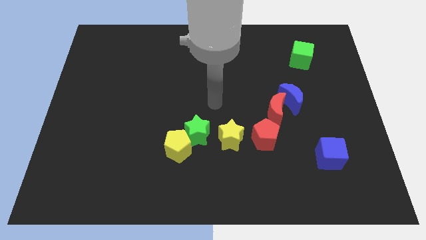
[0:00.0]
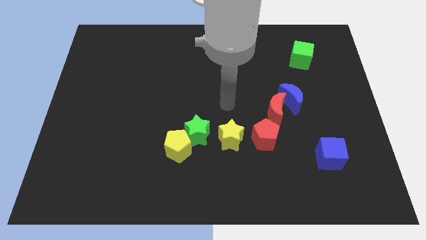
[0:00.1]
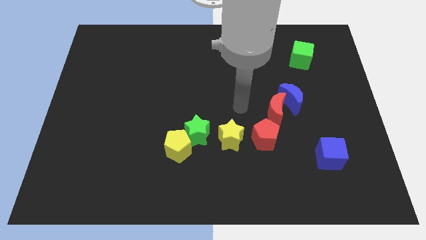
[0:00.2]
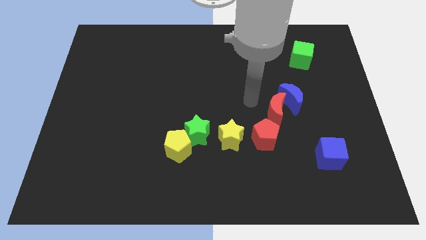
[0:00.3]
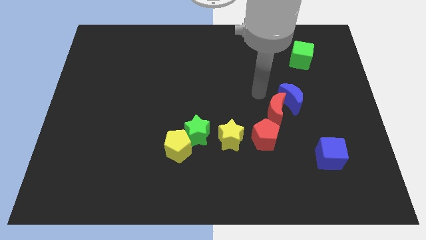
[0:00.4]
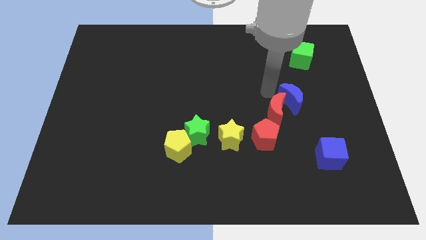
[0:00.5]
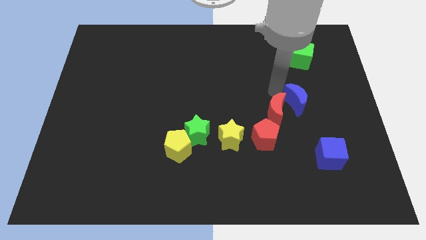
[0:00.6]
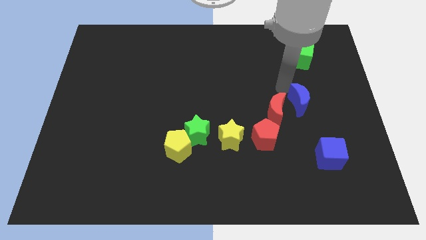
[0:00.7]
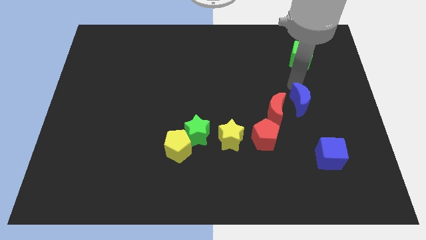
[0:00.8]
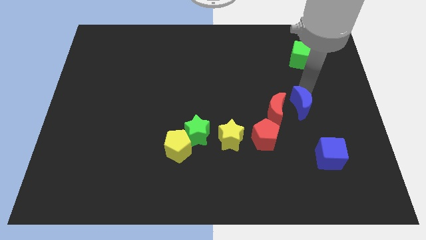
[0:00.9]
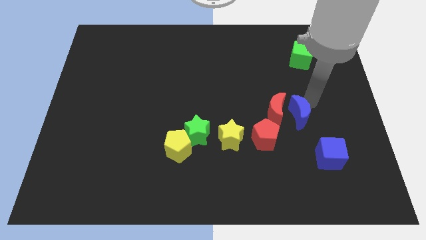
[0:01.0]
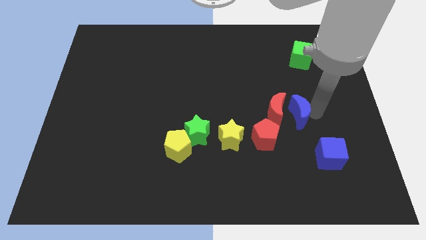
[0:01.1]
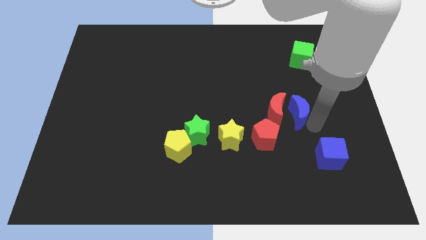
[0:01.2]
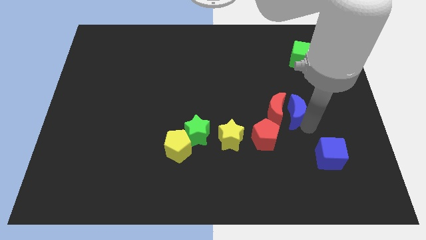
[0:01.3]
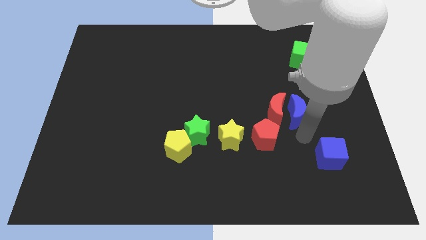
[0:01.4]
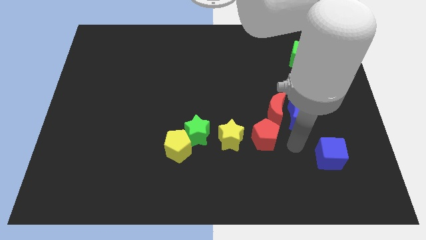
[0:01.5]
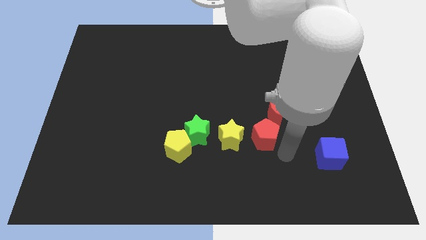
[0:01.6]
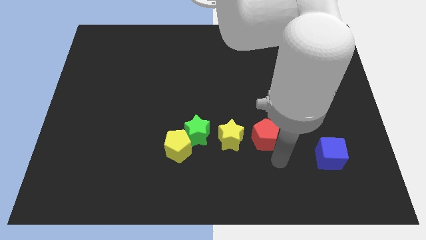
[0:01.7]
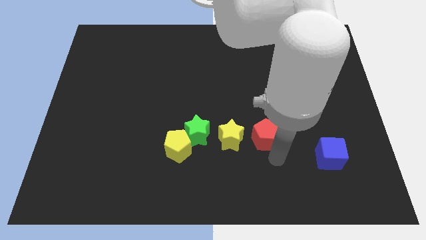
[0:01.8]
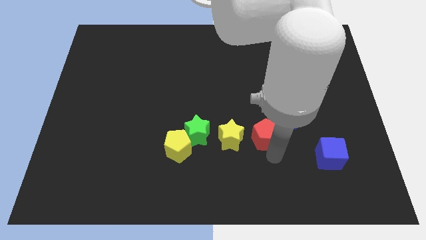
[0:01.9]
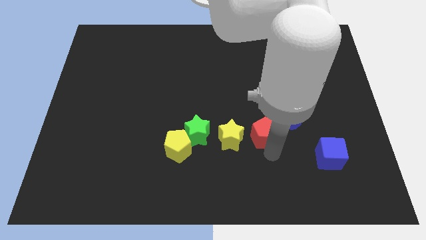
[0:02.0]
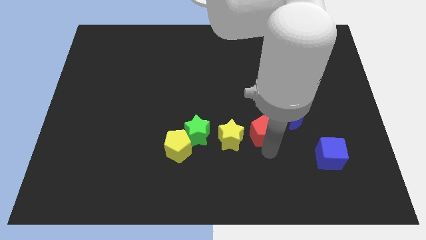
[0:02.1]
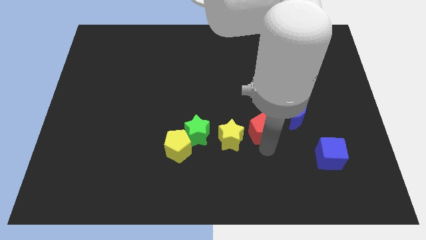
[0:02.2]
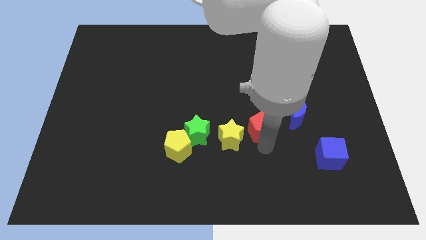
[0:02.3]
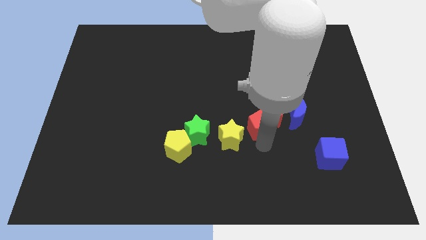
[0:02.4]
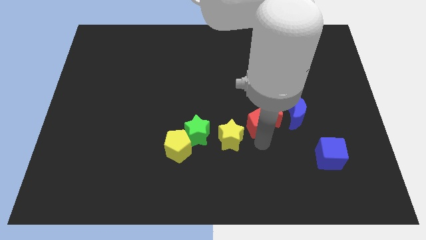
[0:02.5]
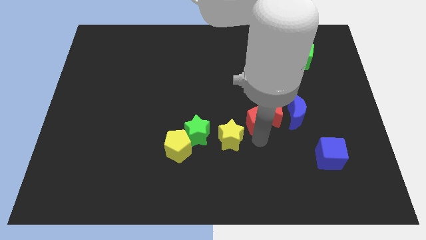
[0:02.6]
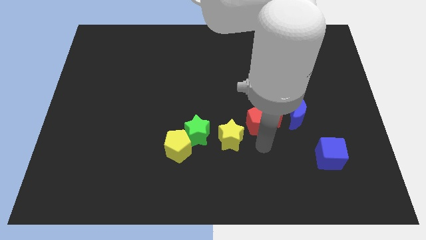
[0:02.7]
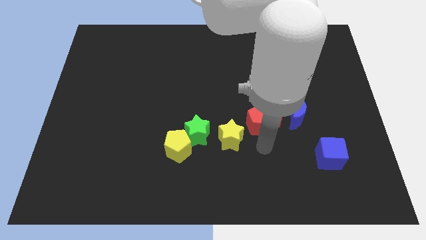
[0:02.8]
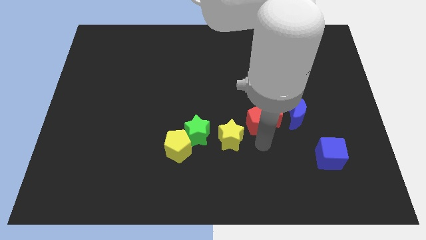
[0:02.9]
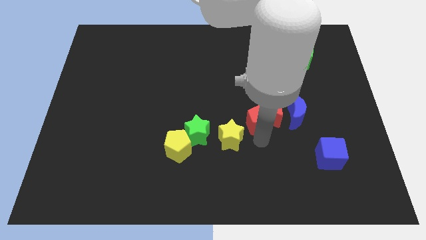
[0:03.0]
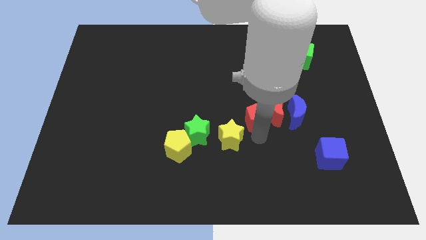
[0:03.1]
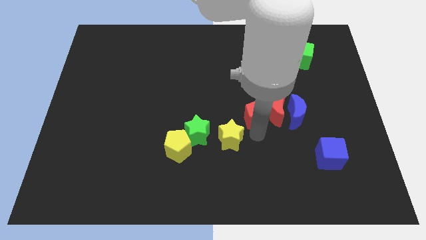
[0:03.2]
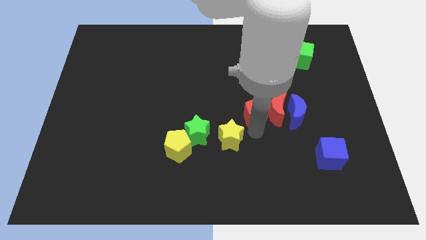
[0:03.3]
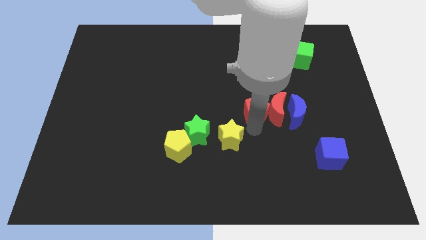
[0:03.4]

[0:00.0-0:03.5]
slide the red pentagon a little up

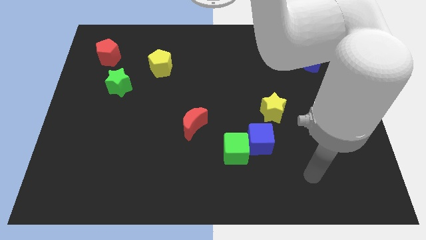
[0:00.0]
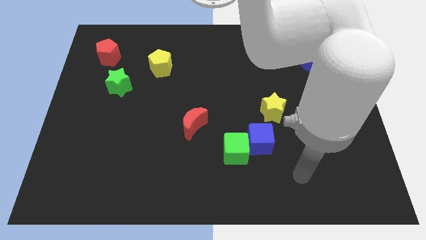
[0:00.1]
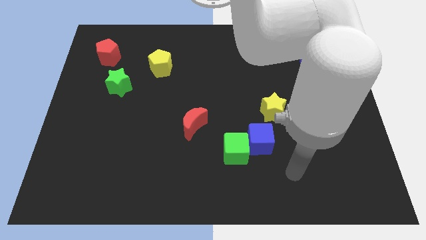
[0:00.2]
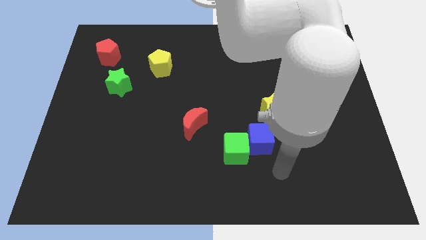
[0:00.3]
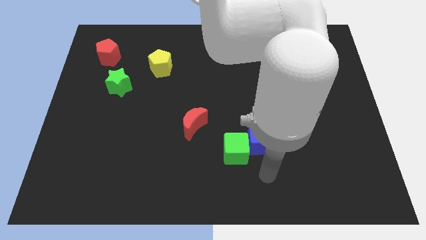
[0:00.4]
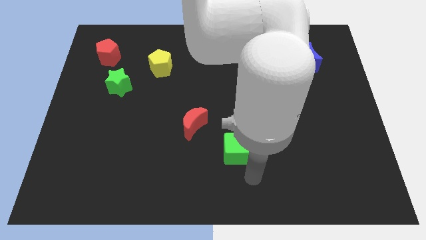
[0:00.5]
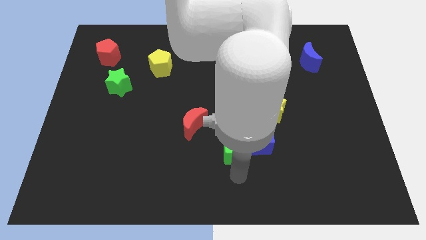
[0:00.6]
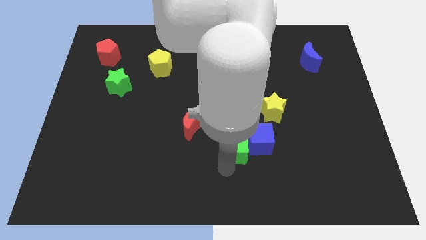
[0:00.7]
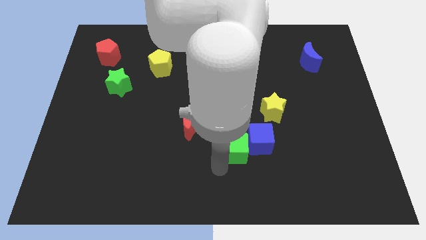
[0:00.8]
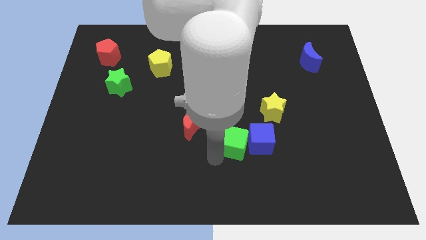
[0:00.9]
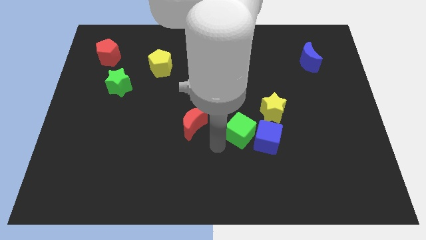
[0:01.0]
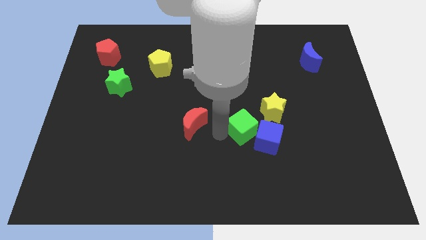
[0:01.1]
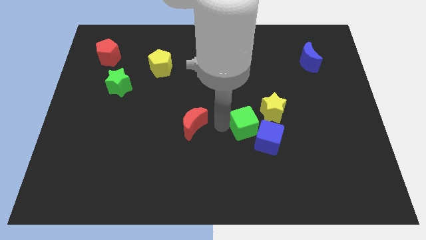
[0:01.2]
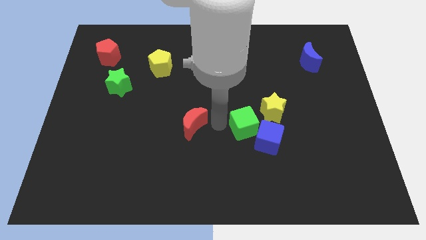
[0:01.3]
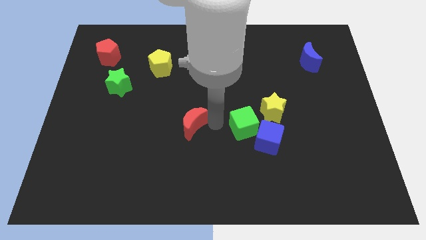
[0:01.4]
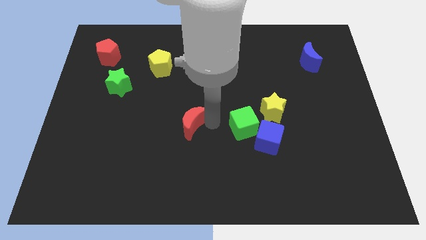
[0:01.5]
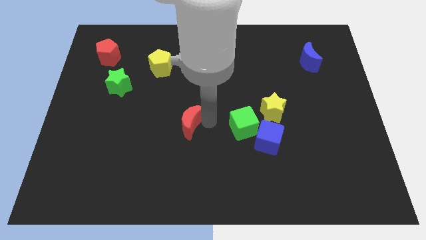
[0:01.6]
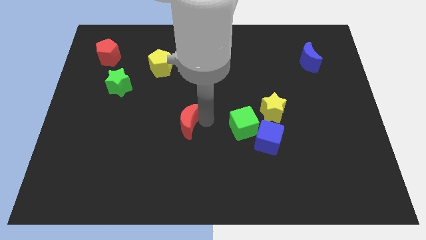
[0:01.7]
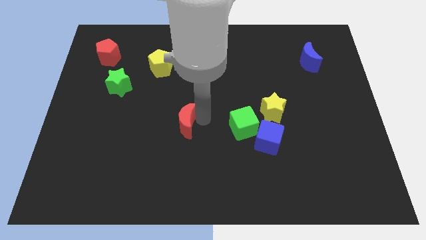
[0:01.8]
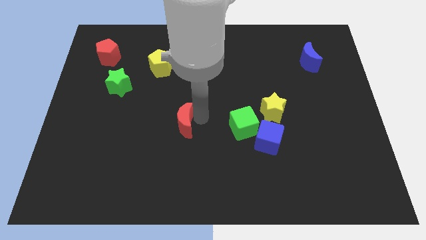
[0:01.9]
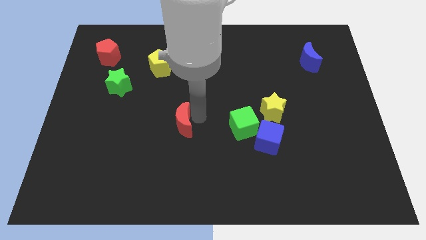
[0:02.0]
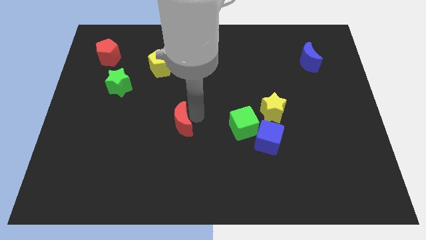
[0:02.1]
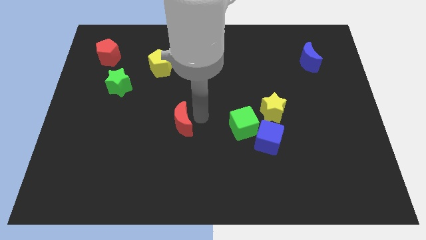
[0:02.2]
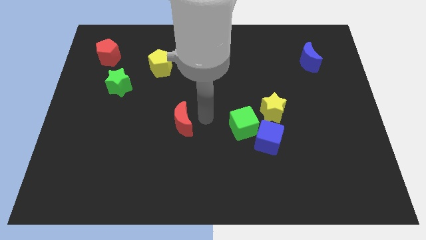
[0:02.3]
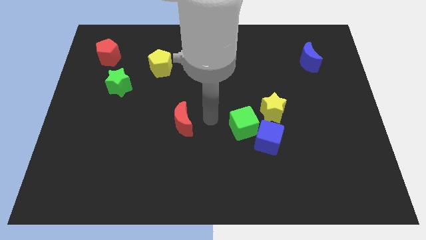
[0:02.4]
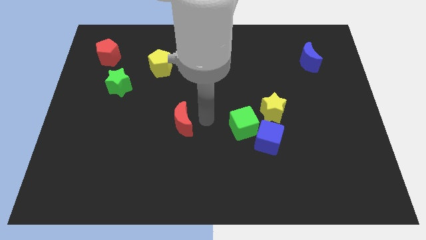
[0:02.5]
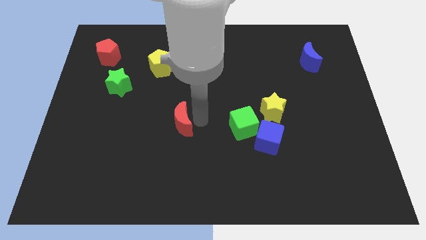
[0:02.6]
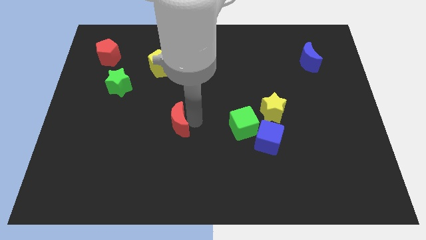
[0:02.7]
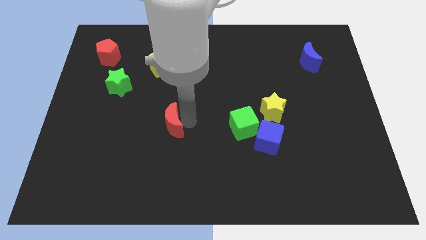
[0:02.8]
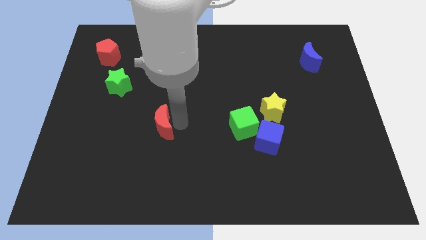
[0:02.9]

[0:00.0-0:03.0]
slide the red moon somewhat to the left

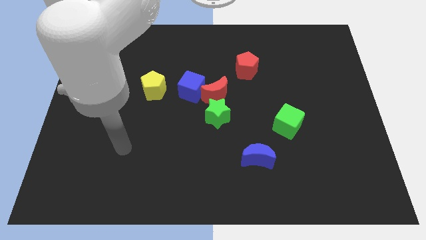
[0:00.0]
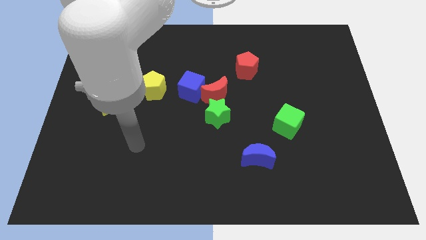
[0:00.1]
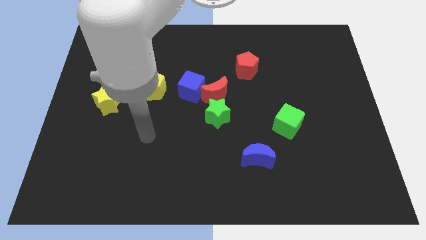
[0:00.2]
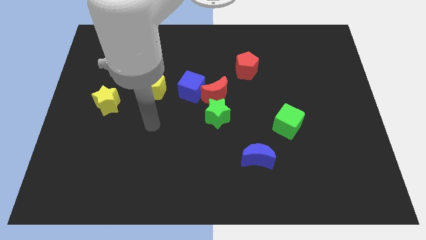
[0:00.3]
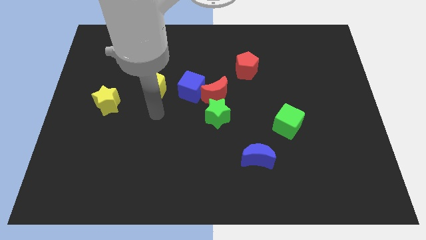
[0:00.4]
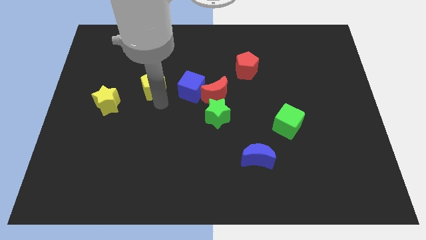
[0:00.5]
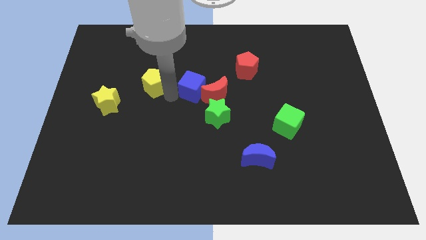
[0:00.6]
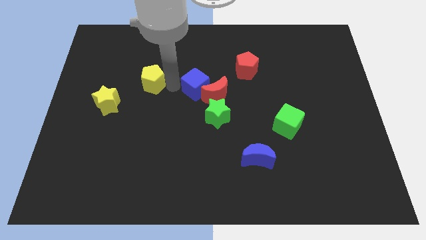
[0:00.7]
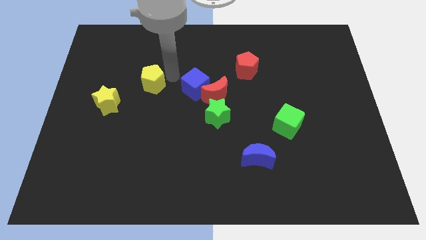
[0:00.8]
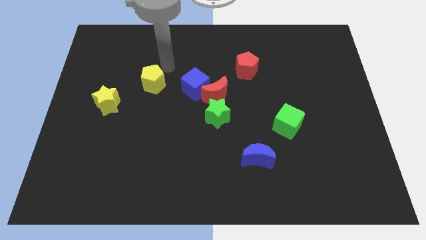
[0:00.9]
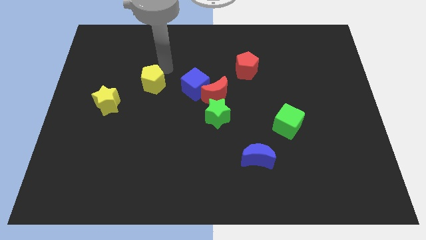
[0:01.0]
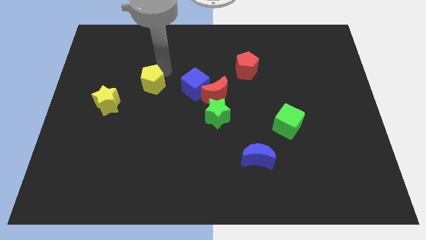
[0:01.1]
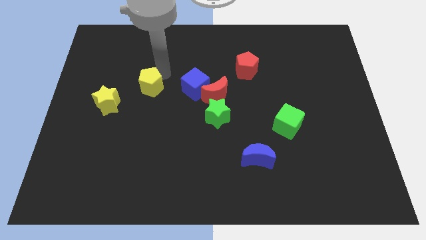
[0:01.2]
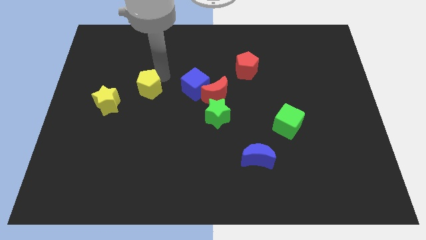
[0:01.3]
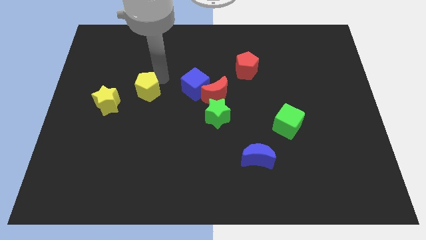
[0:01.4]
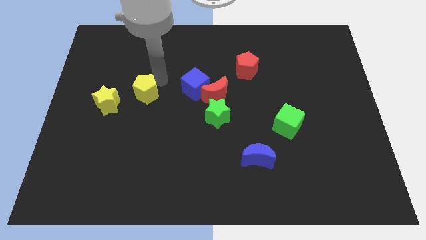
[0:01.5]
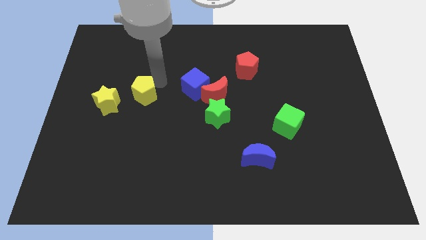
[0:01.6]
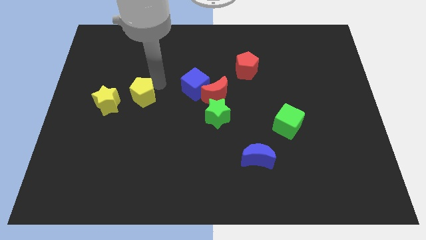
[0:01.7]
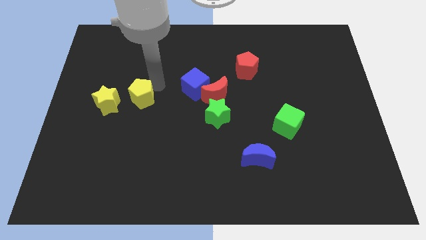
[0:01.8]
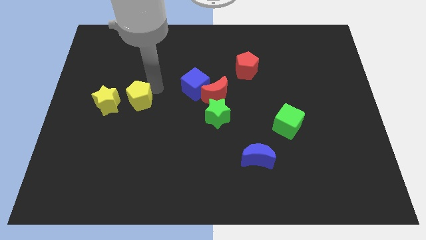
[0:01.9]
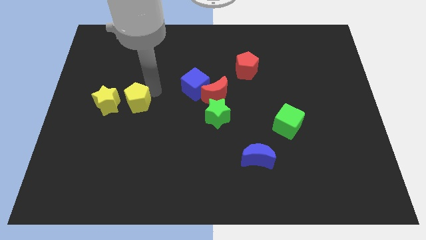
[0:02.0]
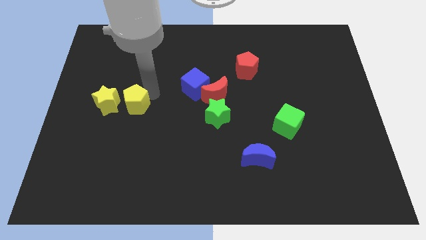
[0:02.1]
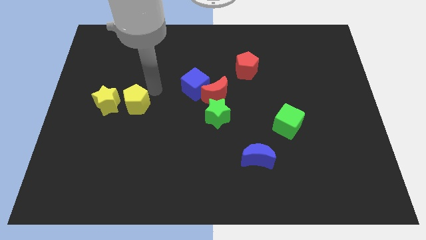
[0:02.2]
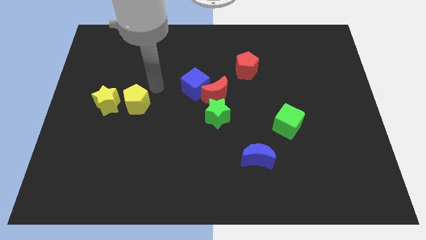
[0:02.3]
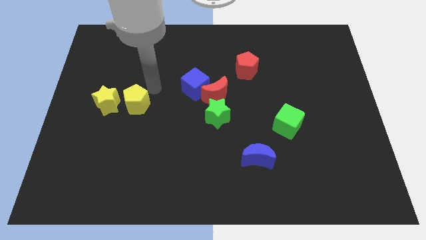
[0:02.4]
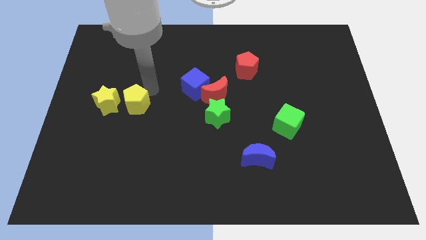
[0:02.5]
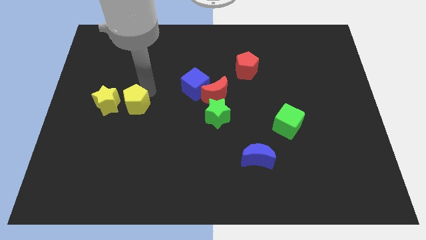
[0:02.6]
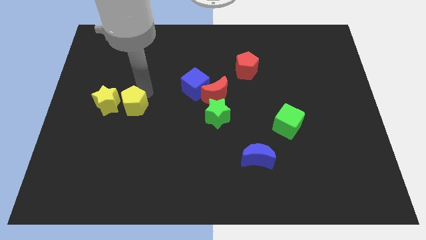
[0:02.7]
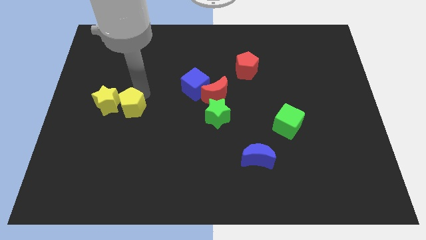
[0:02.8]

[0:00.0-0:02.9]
slide the yellow pentagon a little down and left diagonally
